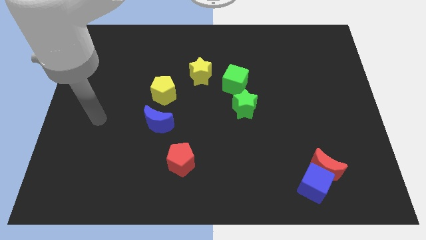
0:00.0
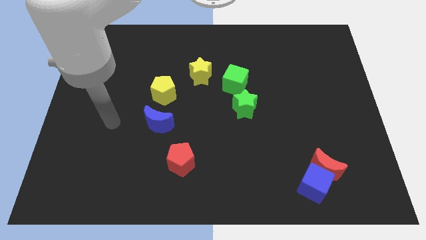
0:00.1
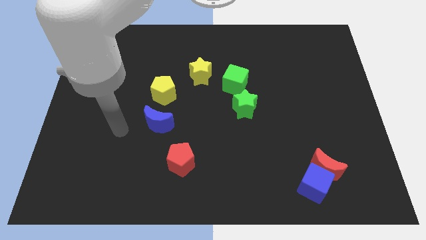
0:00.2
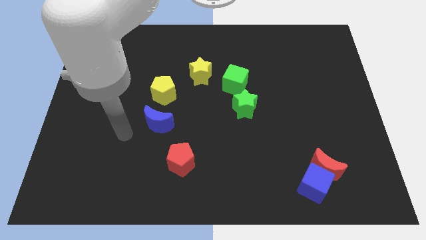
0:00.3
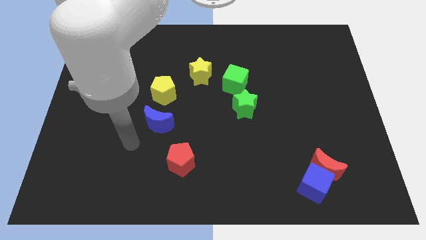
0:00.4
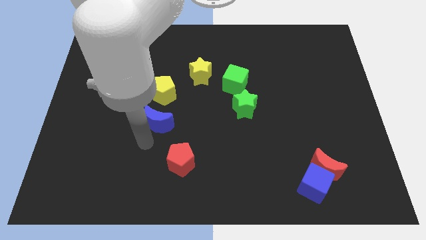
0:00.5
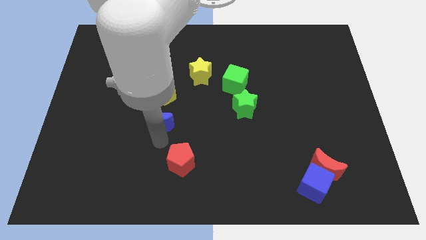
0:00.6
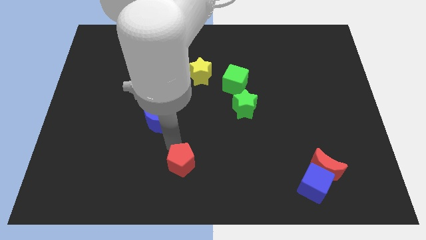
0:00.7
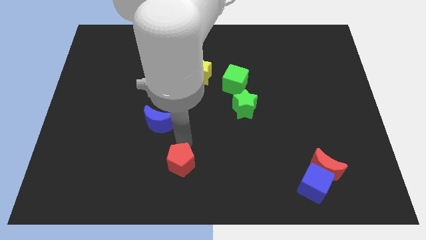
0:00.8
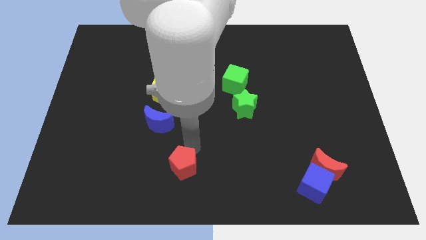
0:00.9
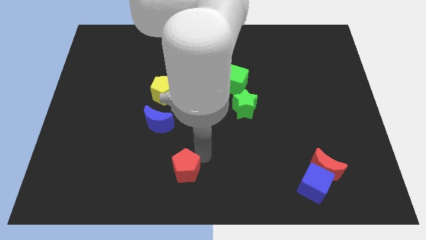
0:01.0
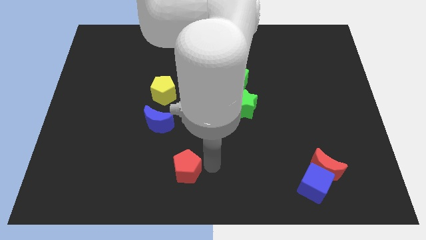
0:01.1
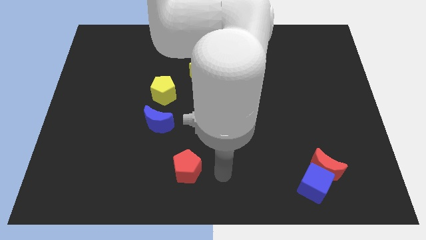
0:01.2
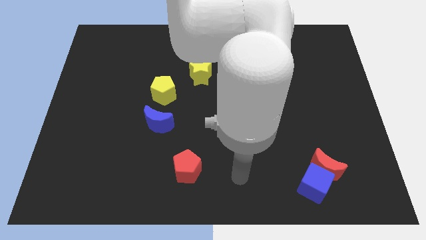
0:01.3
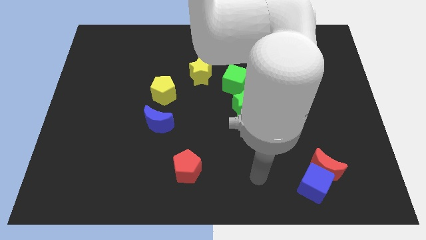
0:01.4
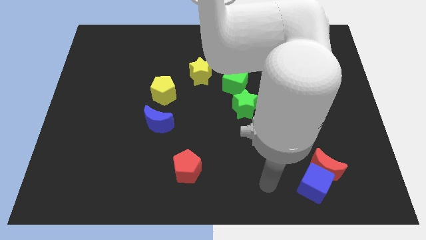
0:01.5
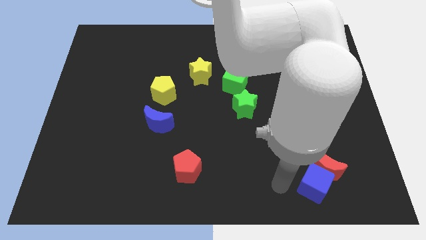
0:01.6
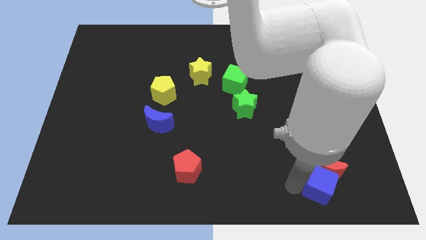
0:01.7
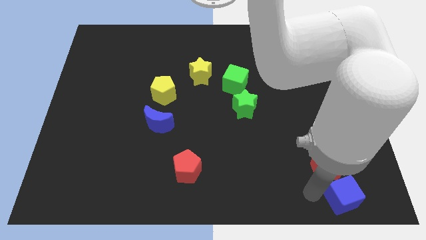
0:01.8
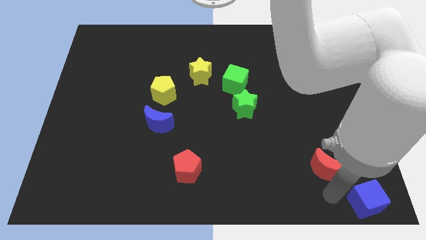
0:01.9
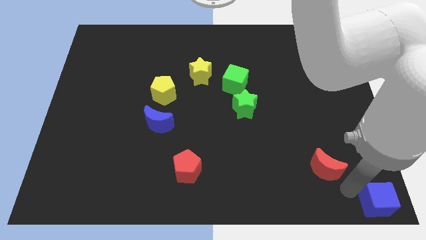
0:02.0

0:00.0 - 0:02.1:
move the red moon away from the blue cube

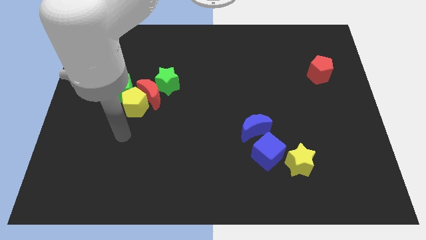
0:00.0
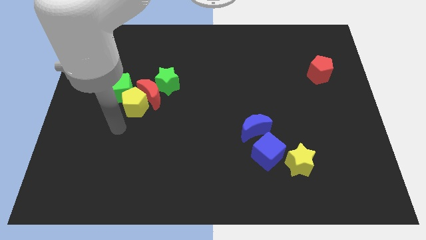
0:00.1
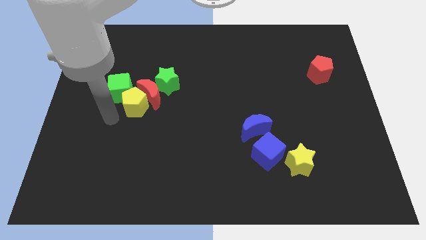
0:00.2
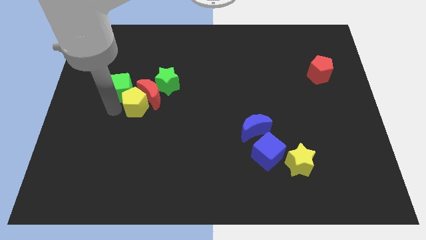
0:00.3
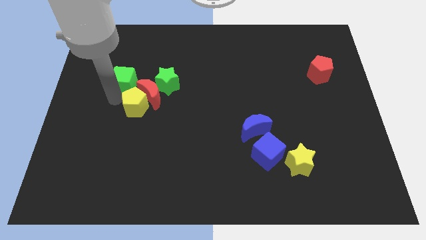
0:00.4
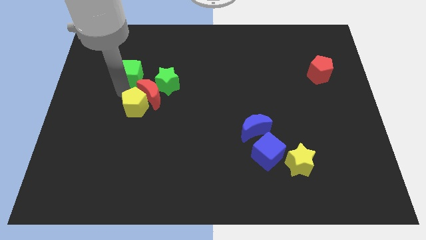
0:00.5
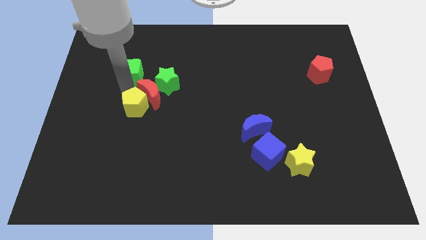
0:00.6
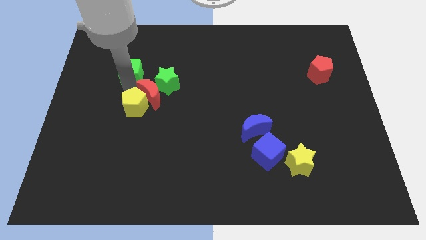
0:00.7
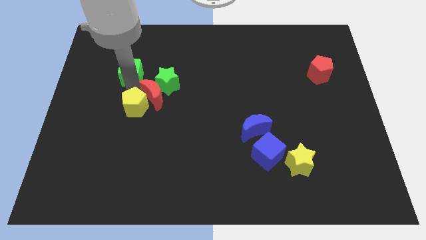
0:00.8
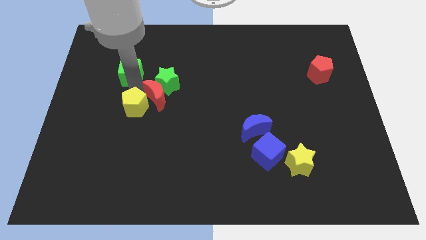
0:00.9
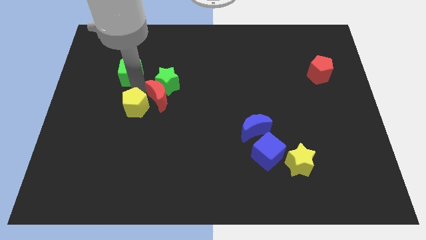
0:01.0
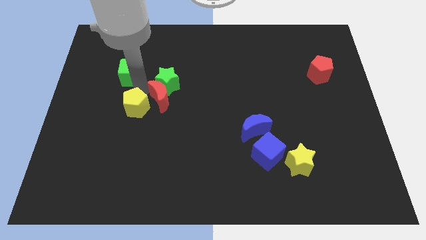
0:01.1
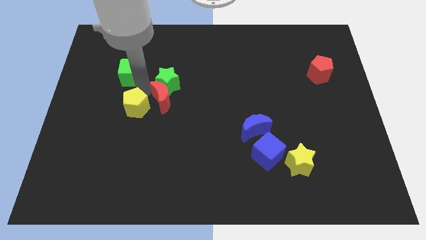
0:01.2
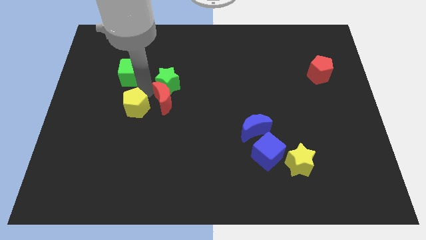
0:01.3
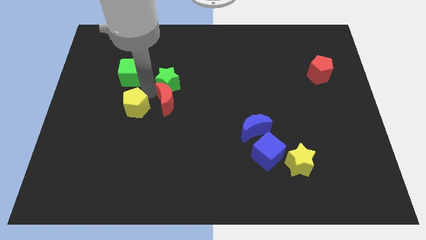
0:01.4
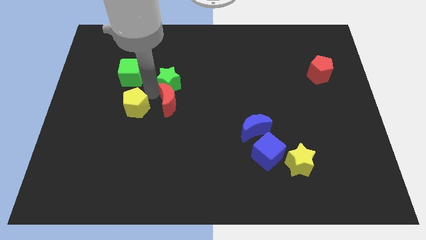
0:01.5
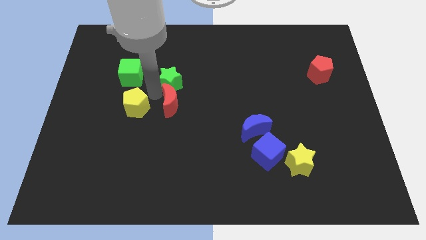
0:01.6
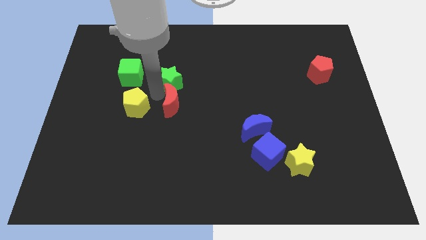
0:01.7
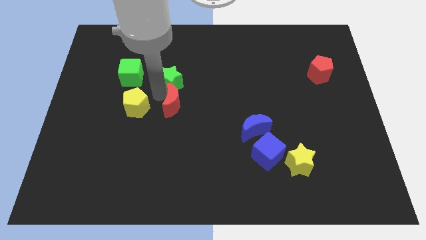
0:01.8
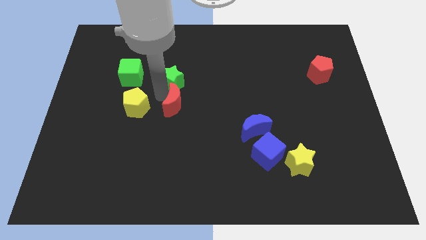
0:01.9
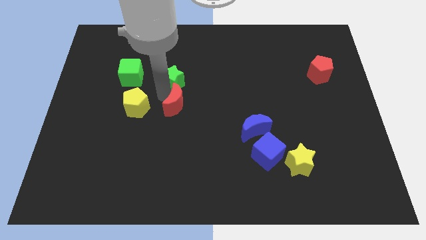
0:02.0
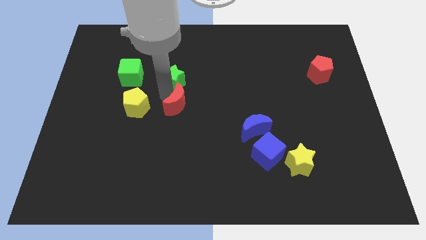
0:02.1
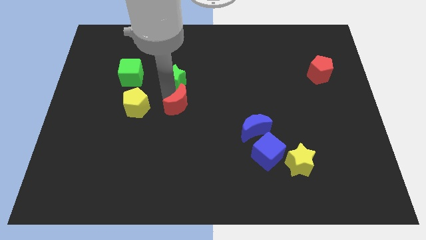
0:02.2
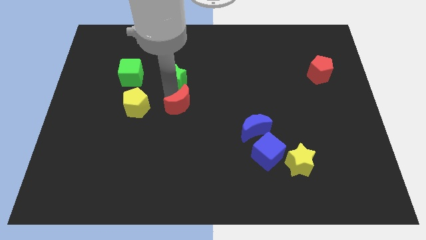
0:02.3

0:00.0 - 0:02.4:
pull the red moon apart from the group

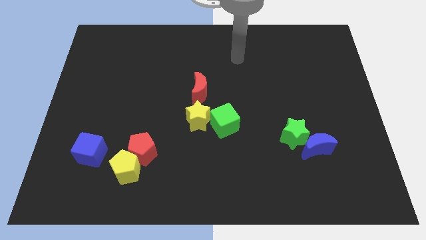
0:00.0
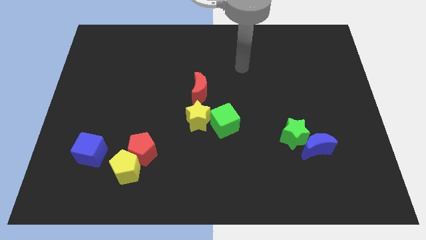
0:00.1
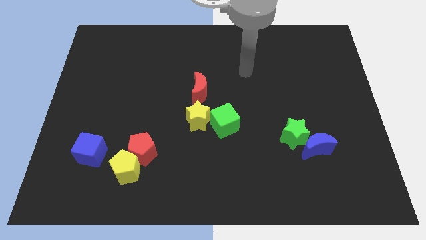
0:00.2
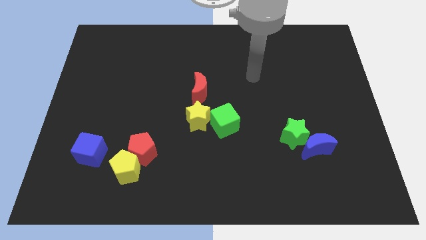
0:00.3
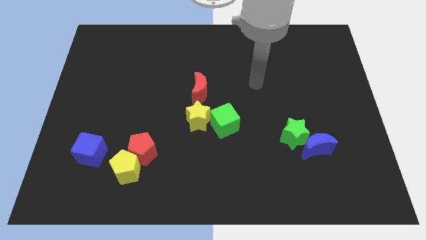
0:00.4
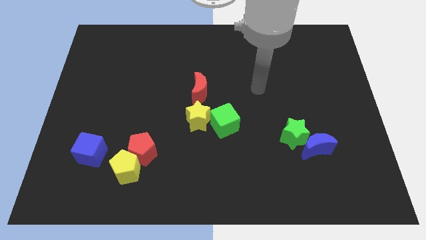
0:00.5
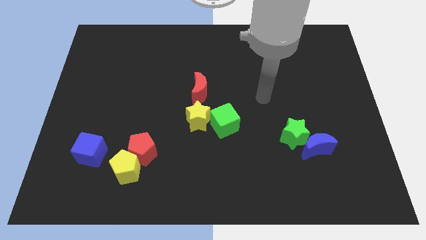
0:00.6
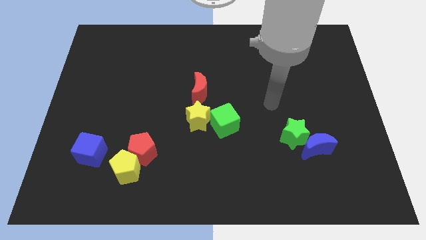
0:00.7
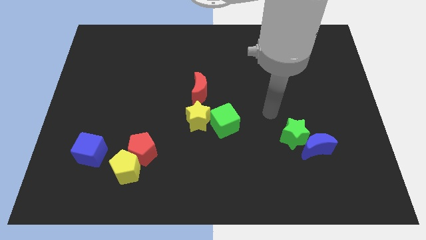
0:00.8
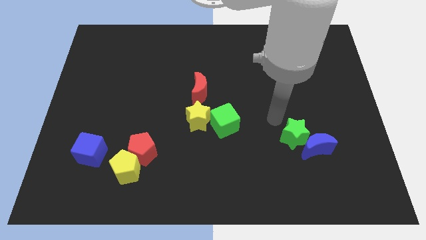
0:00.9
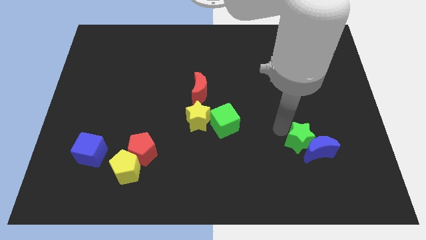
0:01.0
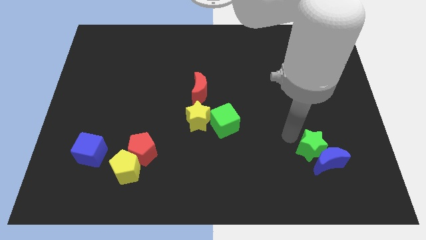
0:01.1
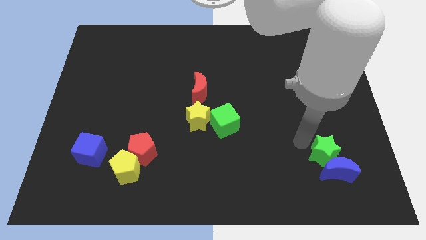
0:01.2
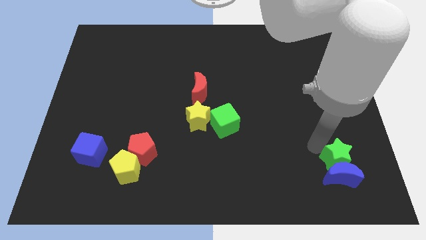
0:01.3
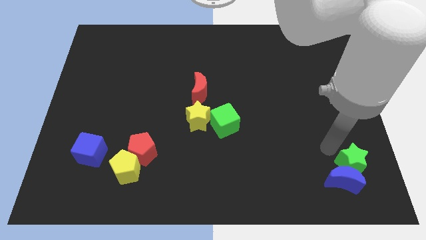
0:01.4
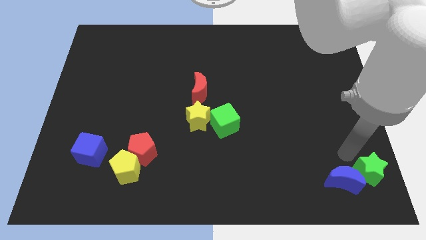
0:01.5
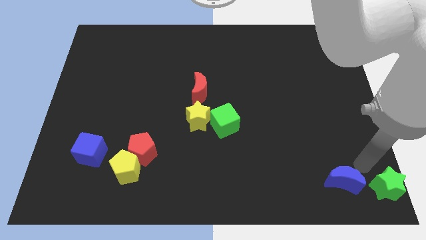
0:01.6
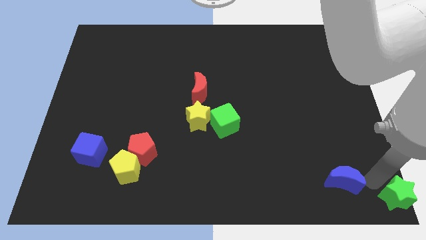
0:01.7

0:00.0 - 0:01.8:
separate the blue moon from the green star

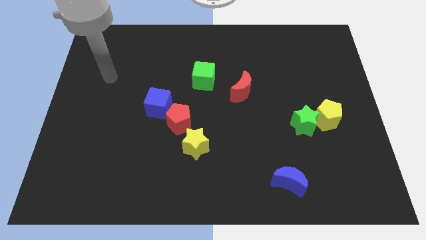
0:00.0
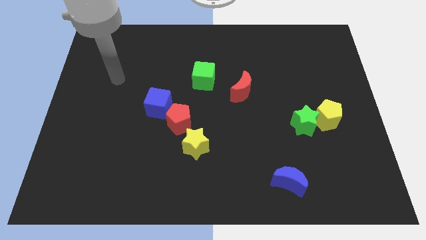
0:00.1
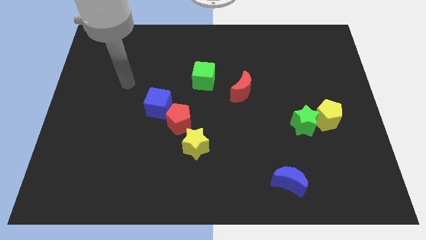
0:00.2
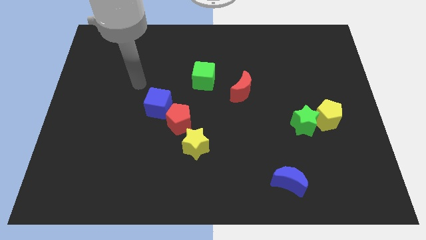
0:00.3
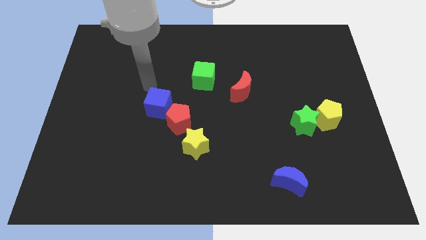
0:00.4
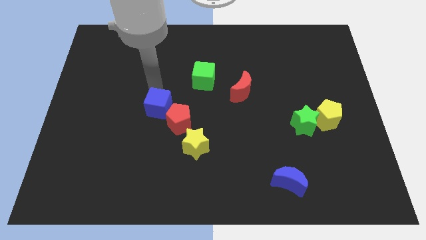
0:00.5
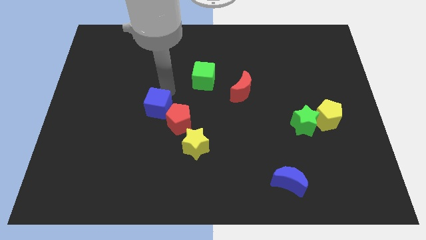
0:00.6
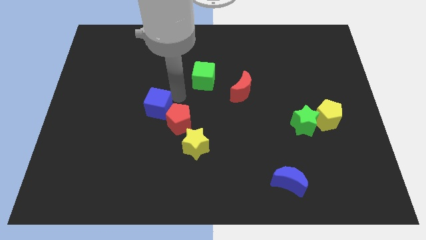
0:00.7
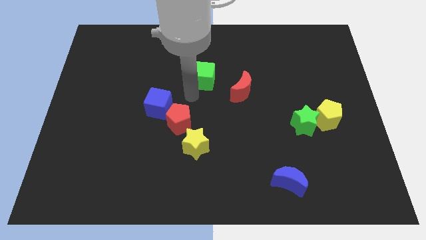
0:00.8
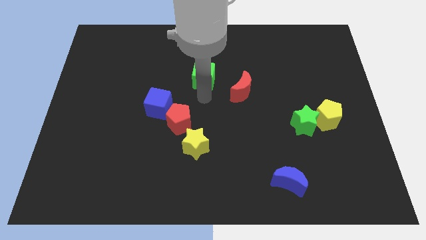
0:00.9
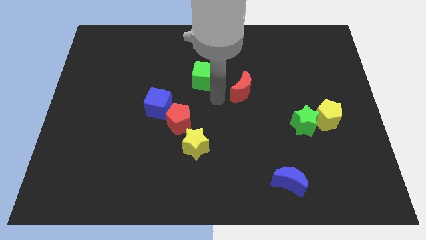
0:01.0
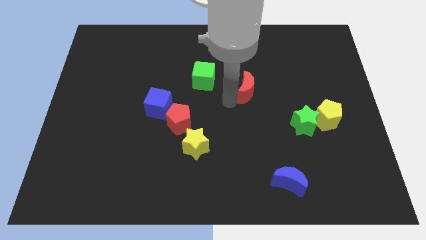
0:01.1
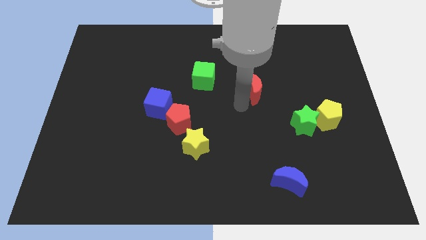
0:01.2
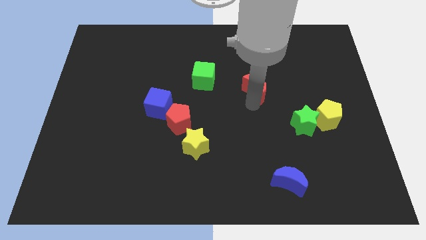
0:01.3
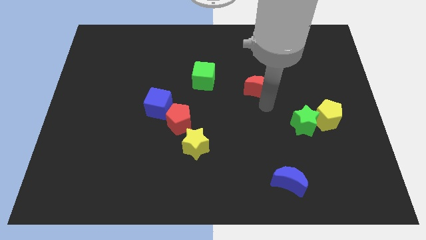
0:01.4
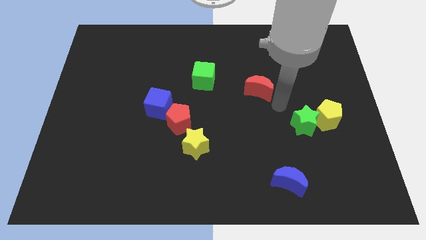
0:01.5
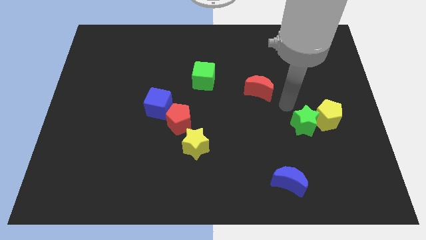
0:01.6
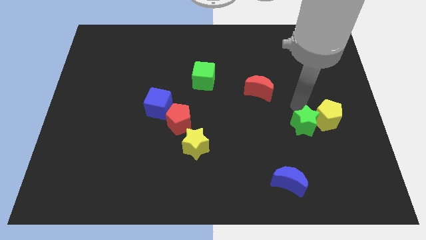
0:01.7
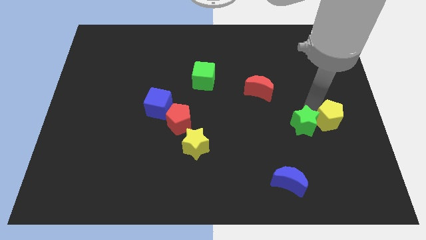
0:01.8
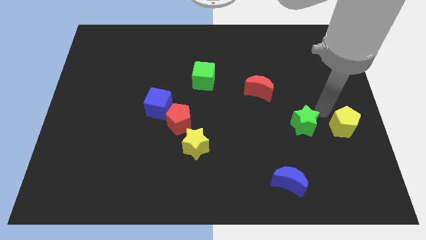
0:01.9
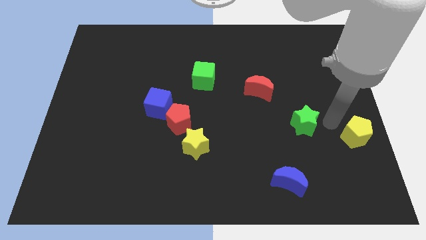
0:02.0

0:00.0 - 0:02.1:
move the green star away from the yellow pentagon

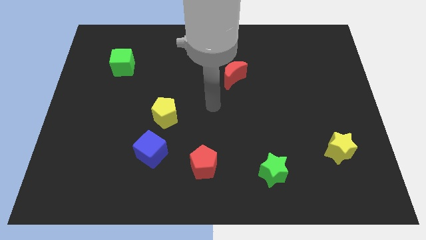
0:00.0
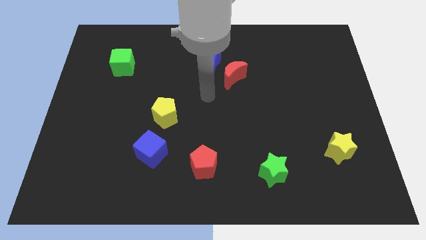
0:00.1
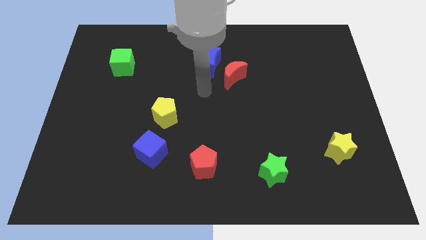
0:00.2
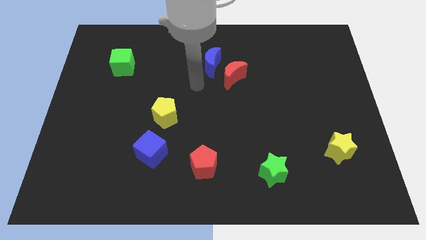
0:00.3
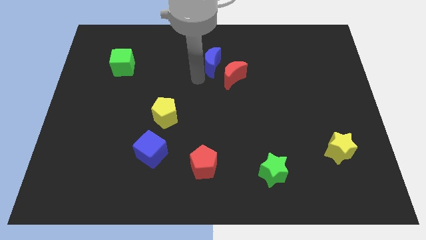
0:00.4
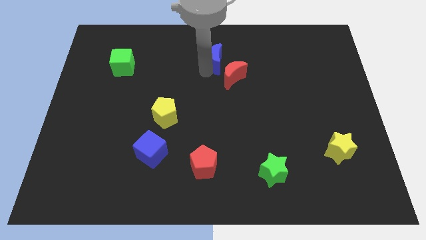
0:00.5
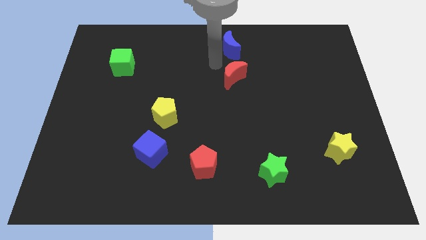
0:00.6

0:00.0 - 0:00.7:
pull the red moon apart from the blue moon

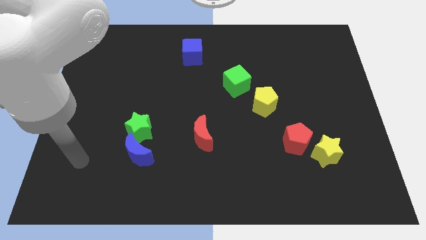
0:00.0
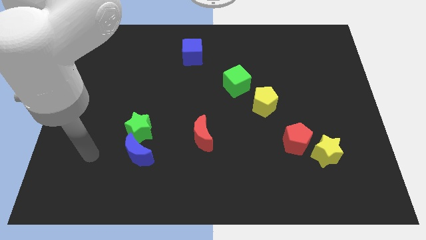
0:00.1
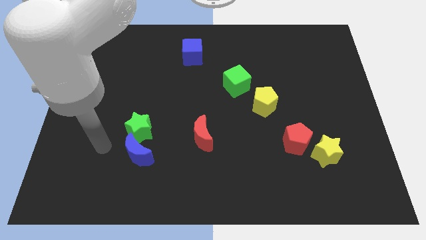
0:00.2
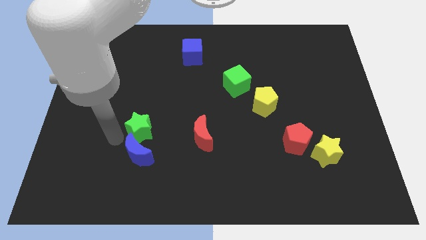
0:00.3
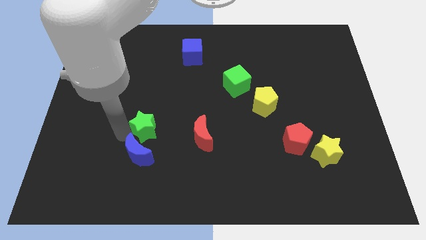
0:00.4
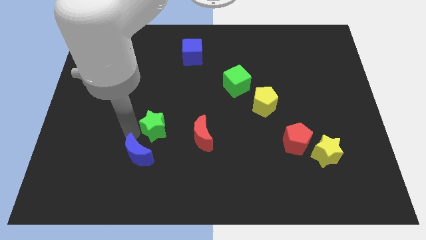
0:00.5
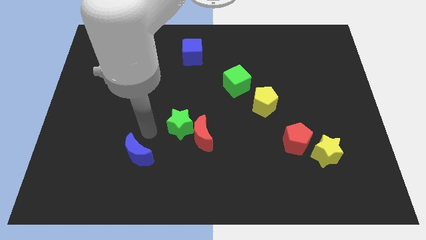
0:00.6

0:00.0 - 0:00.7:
move the blue moon away from the green star
